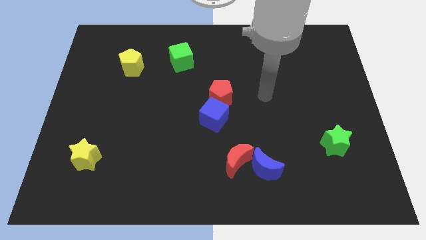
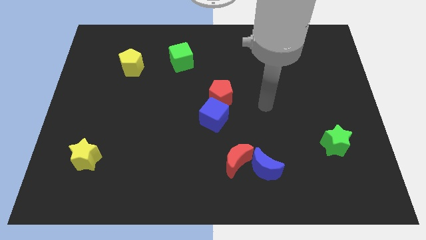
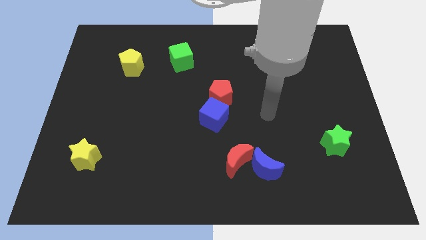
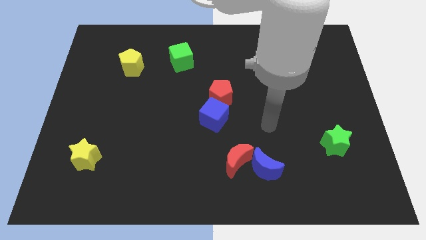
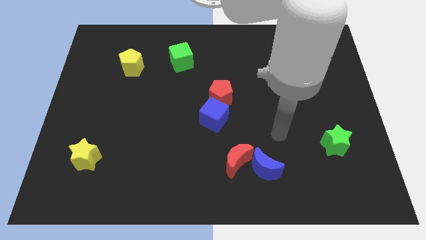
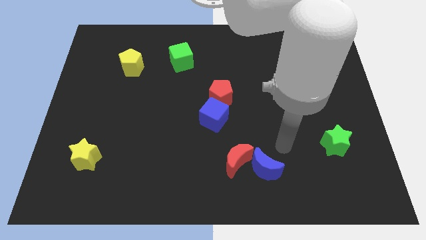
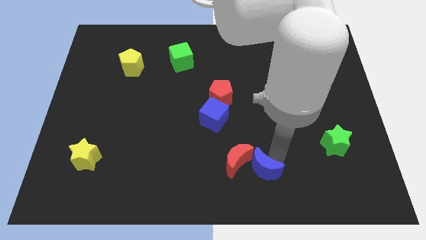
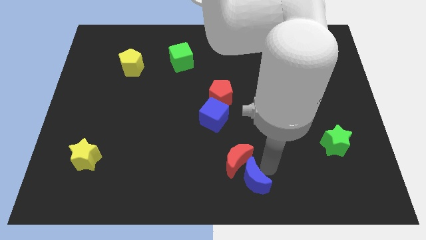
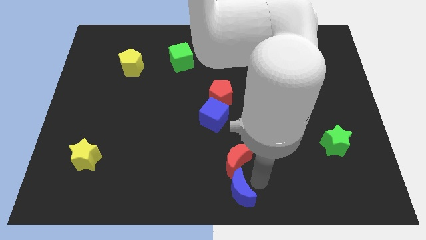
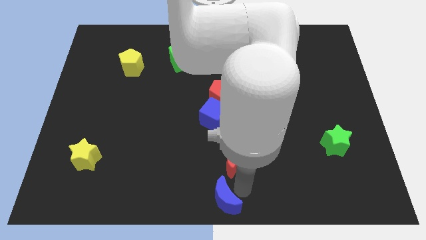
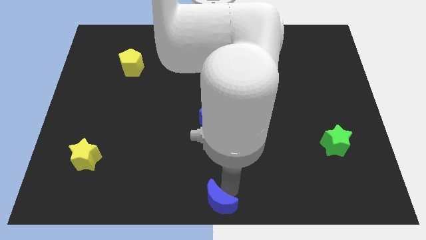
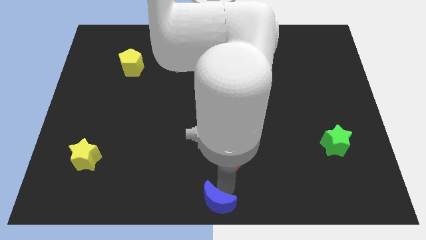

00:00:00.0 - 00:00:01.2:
move the red moon away from the blue moon

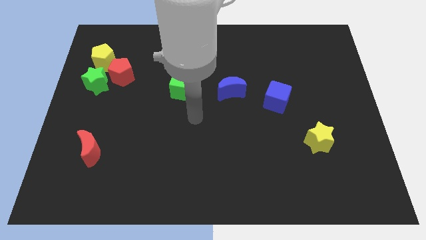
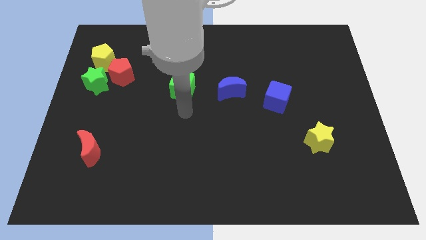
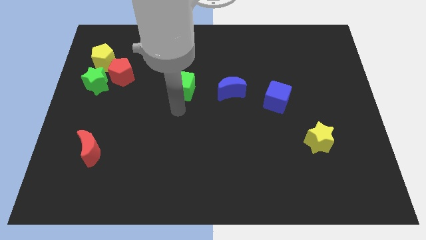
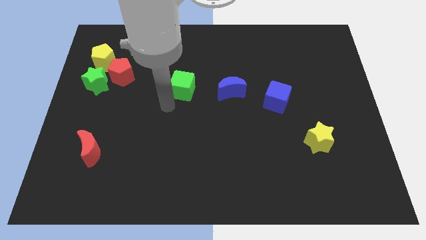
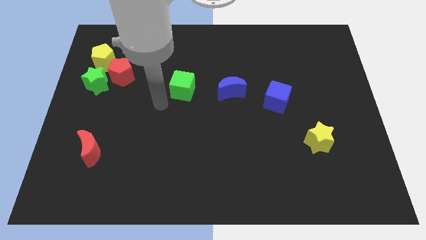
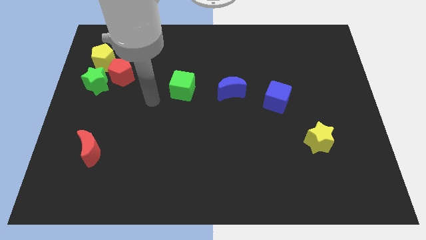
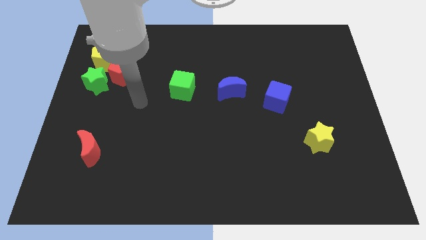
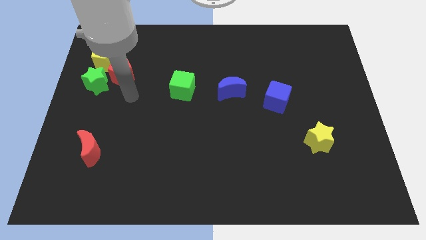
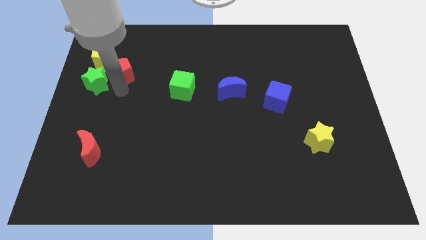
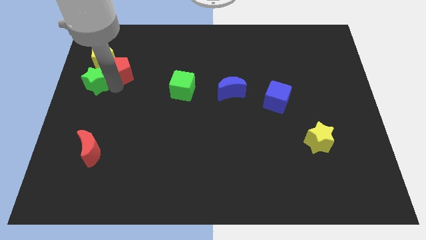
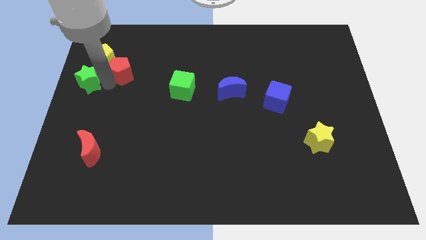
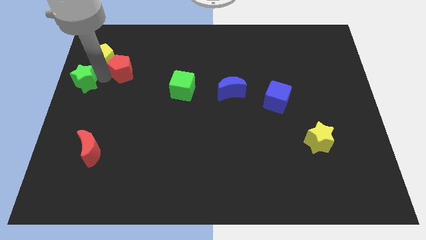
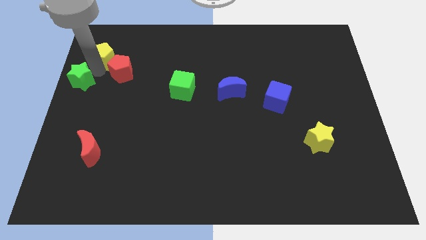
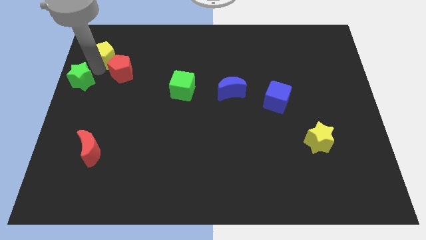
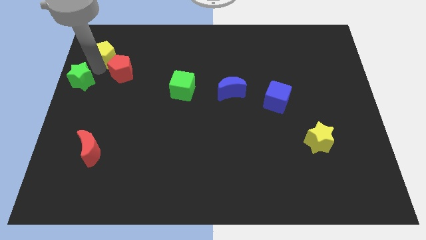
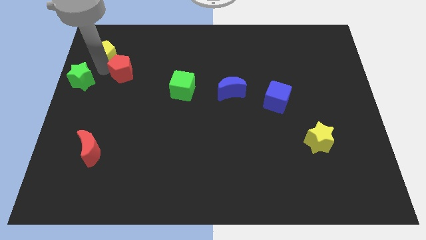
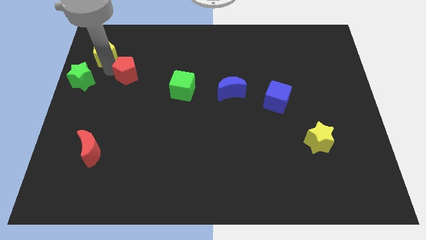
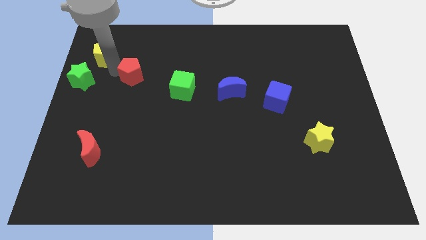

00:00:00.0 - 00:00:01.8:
separate the red pentagon from the green star and yellow pentagon

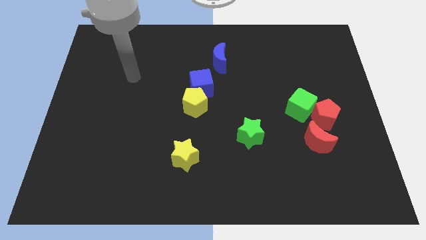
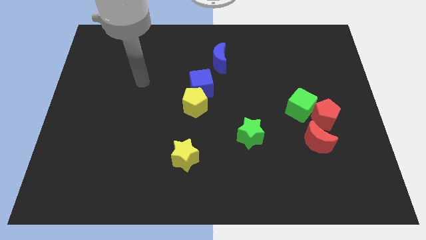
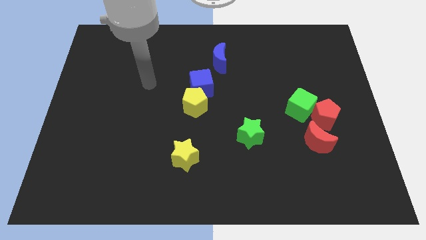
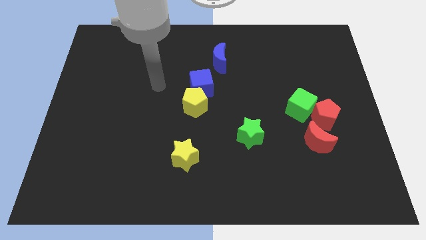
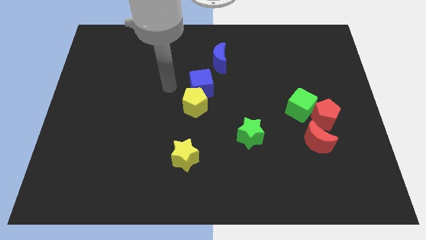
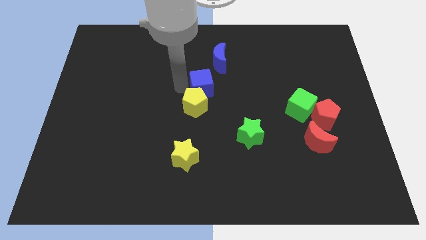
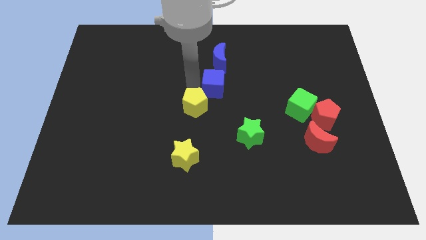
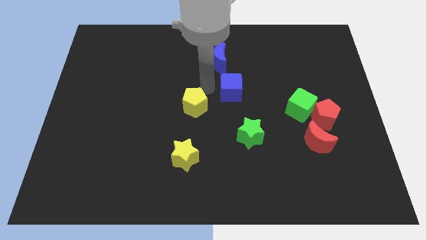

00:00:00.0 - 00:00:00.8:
separate the yellow pentagon from the blue cube

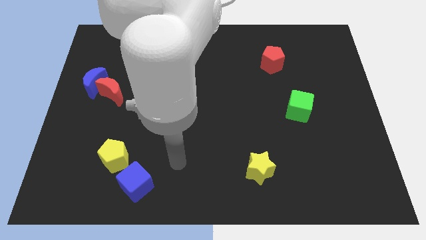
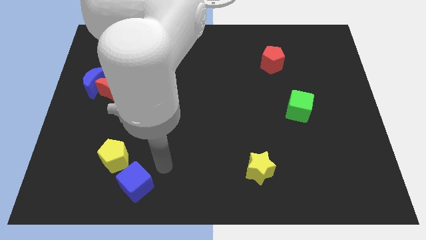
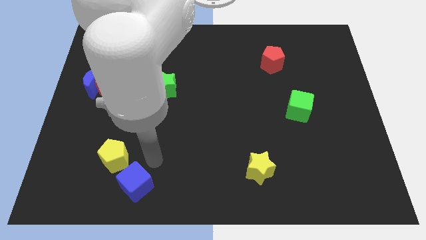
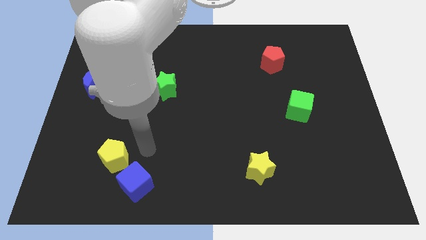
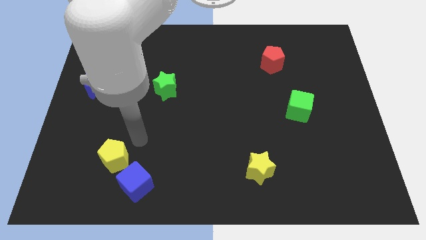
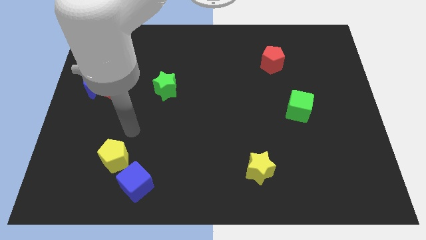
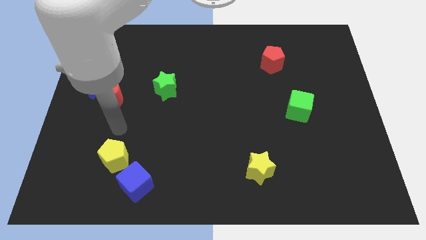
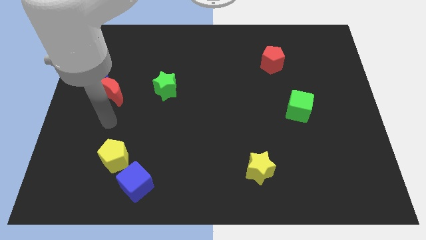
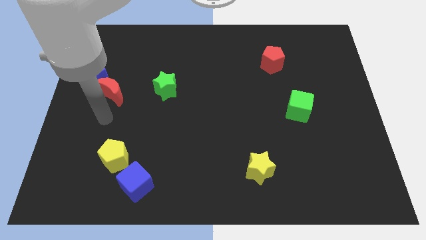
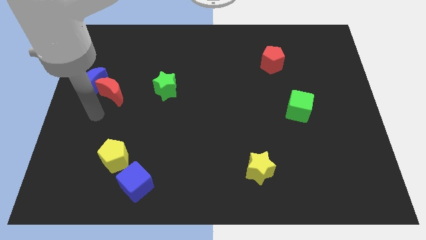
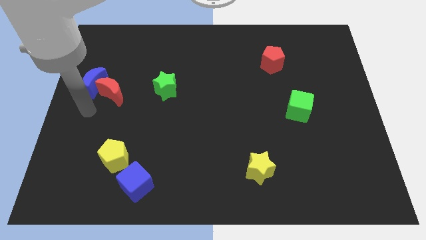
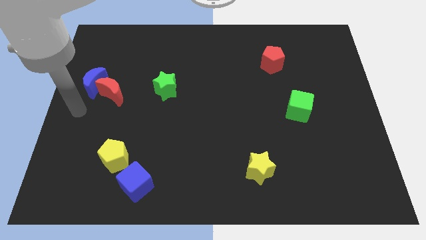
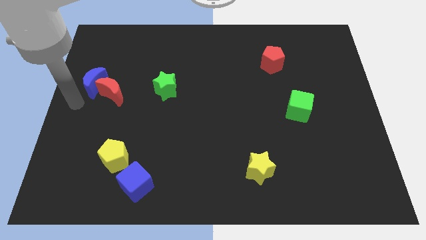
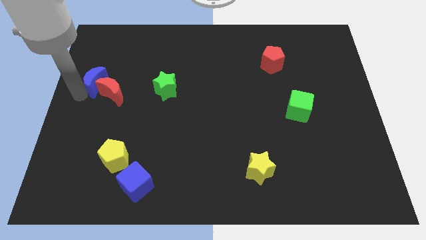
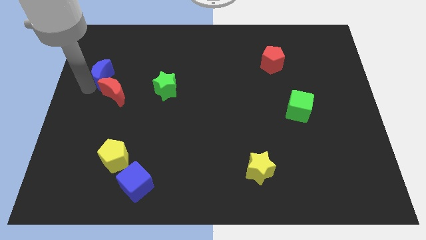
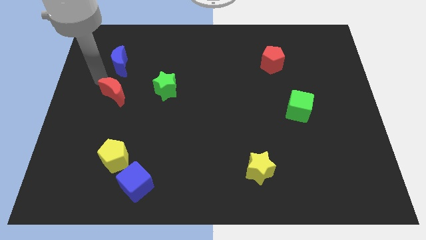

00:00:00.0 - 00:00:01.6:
pull the red moon apart from the blue moon

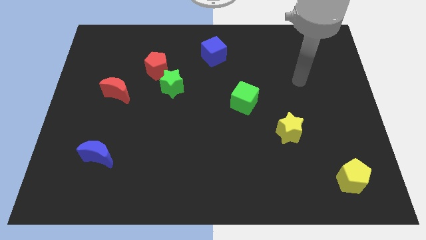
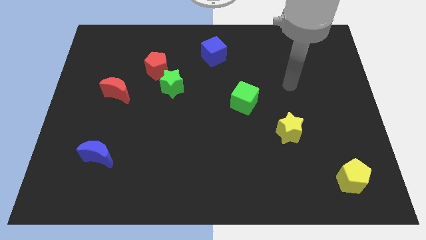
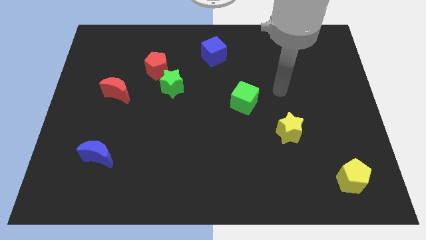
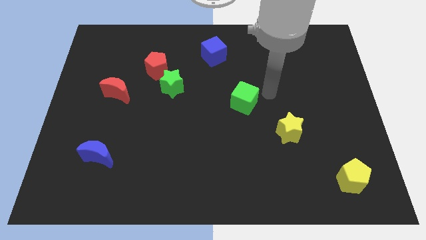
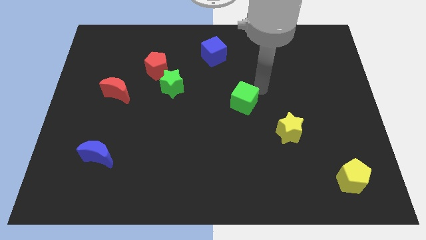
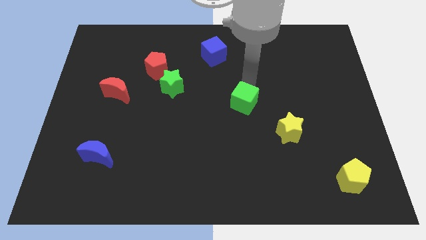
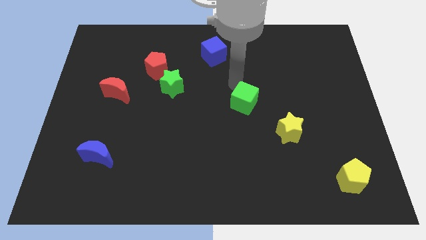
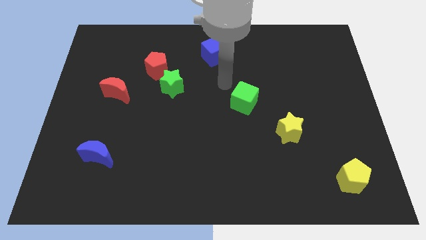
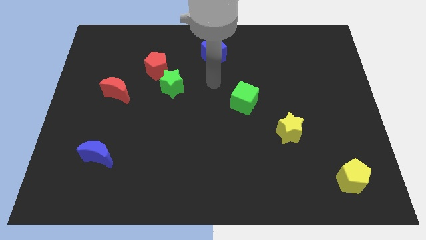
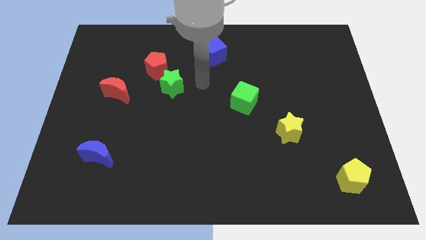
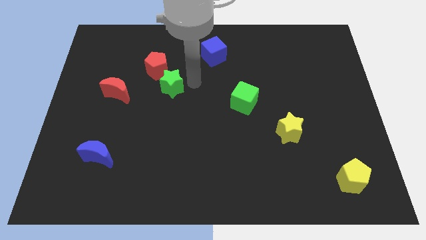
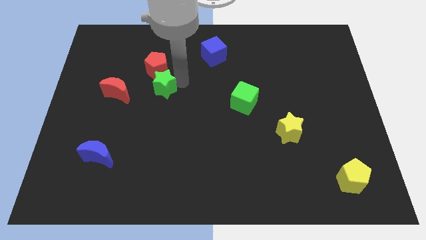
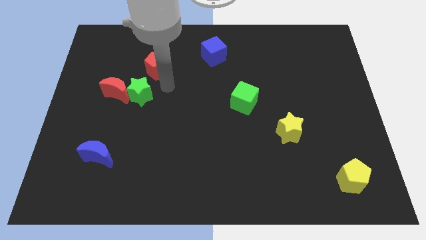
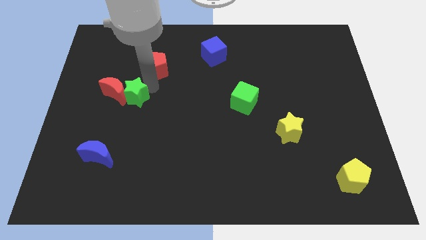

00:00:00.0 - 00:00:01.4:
pull the red pentagon apart from the green star

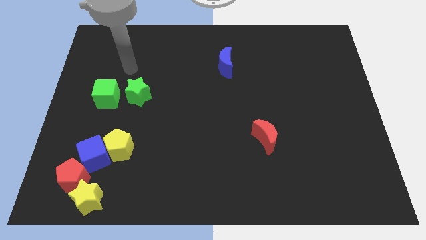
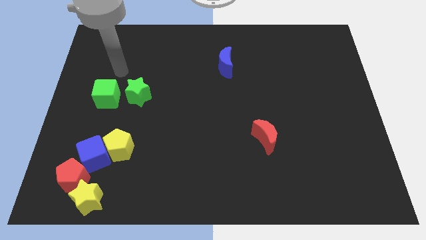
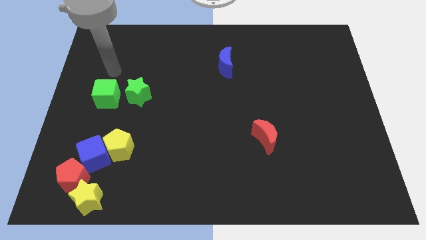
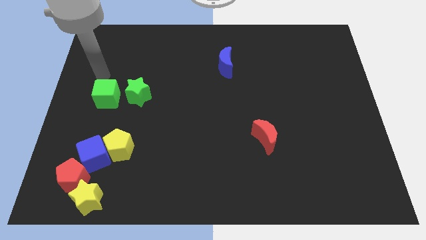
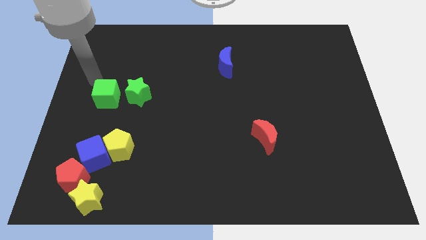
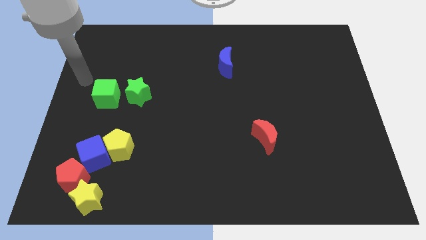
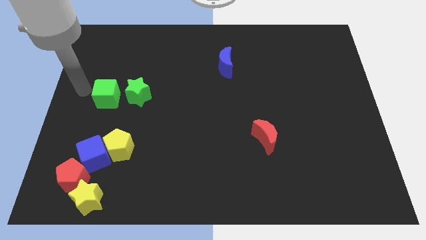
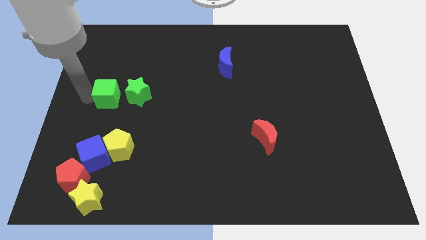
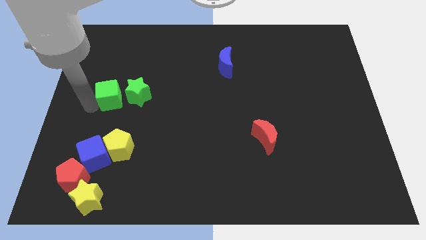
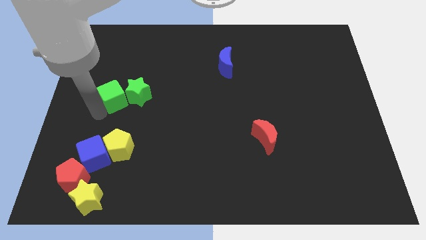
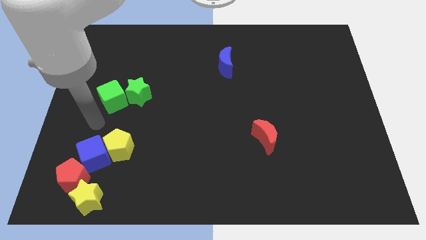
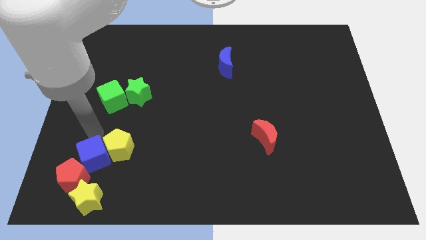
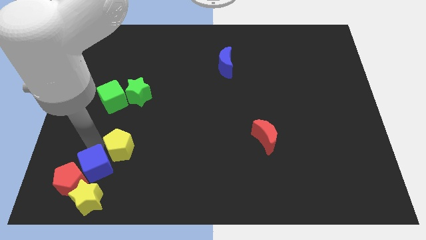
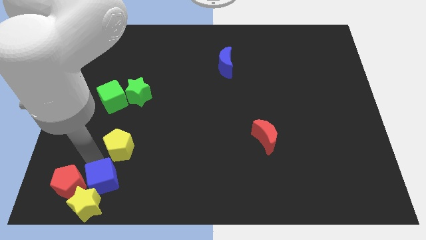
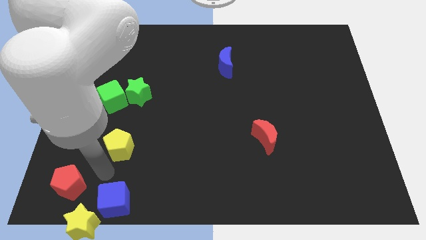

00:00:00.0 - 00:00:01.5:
move the yellow pentagon away from the blue cube

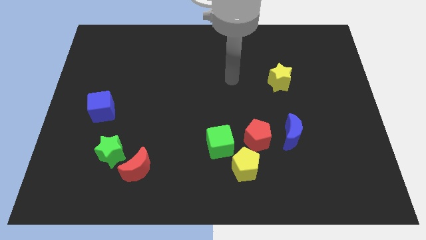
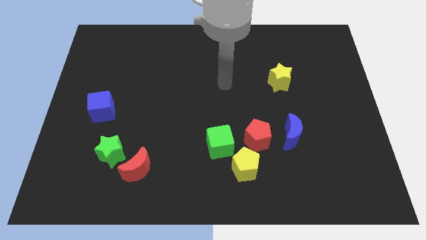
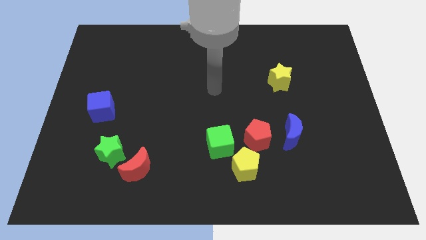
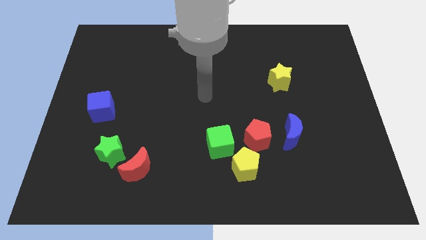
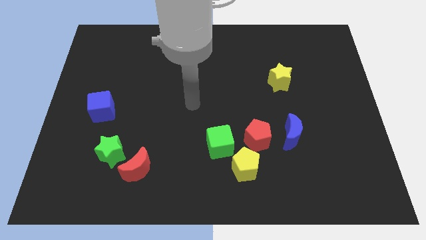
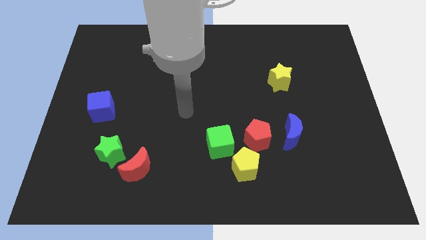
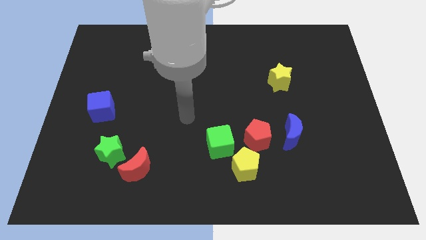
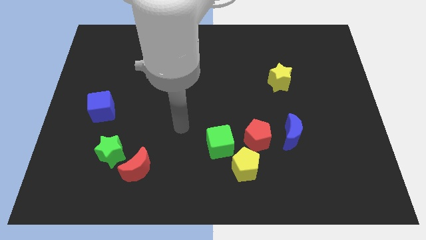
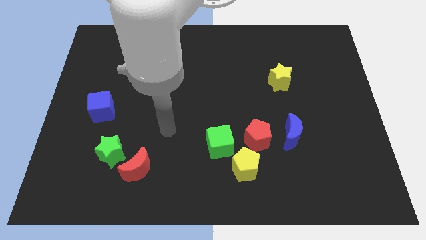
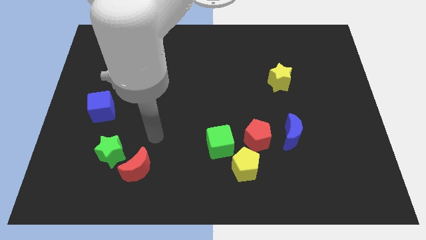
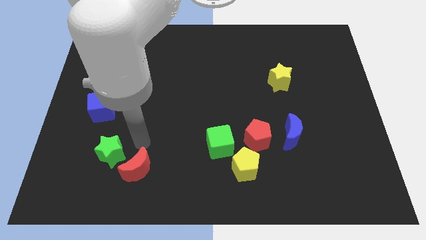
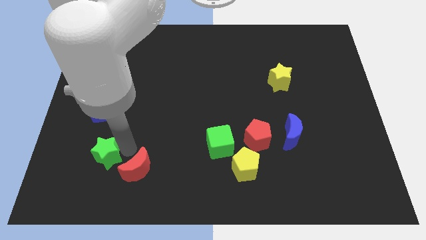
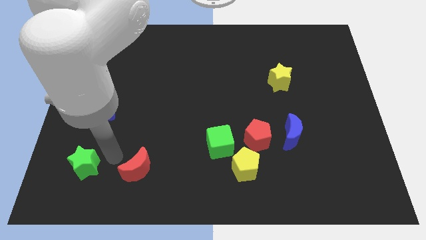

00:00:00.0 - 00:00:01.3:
move the red moon away from the green star
